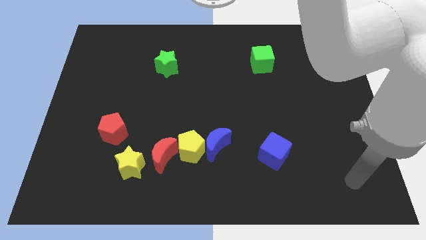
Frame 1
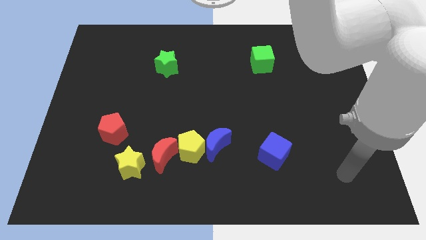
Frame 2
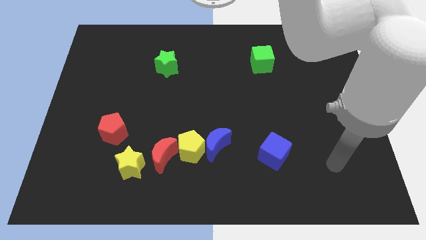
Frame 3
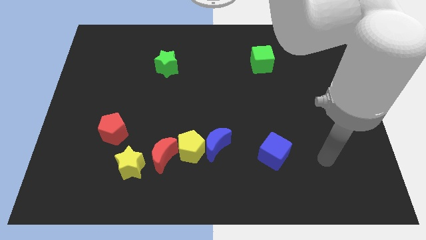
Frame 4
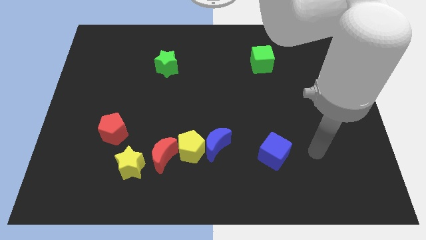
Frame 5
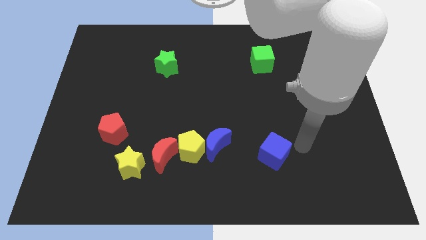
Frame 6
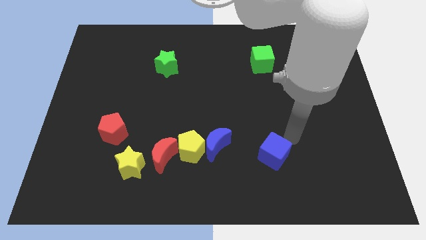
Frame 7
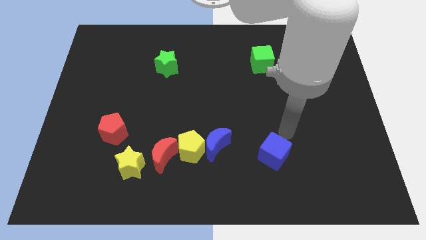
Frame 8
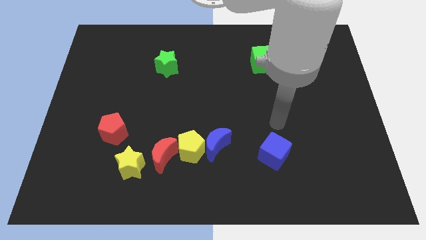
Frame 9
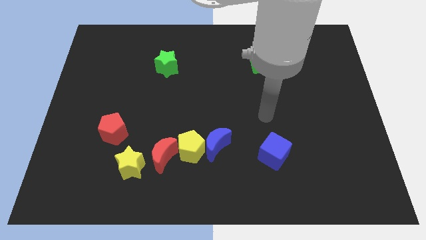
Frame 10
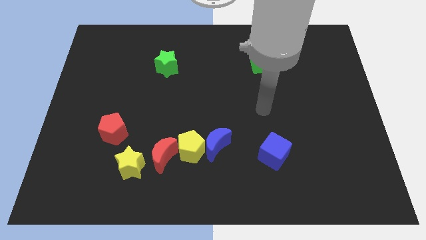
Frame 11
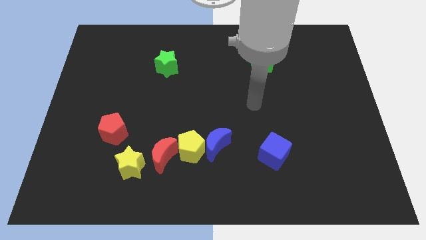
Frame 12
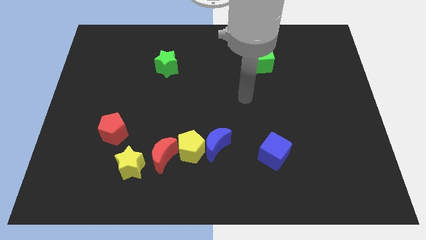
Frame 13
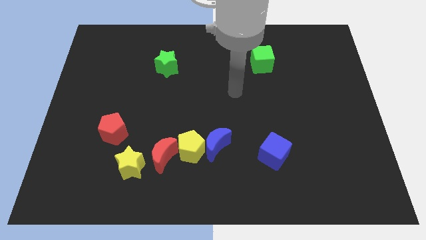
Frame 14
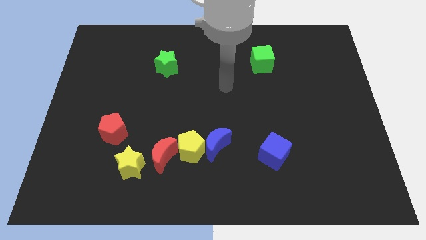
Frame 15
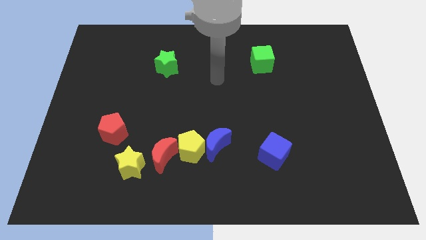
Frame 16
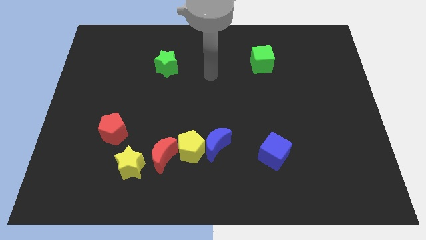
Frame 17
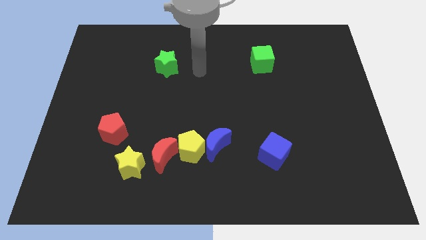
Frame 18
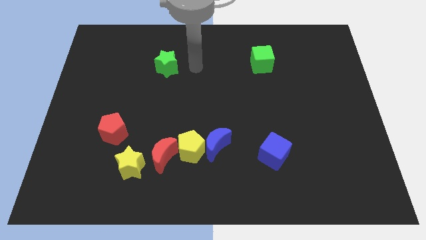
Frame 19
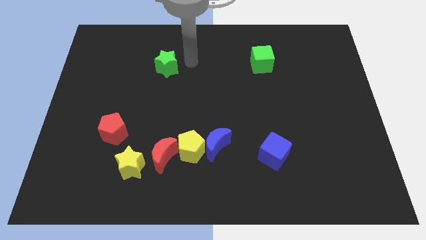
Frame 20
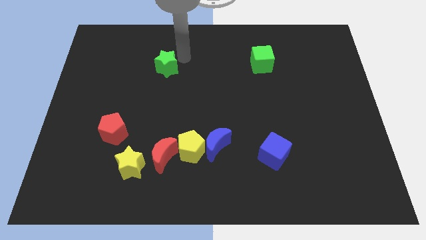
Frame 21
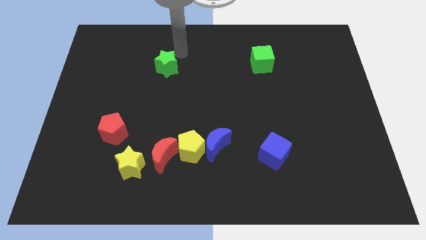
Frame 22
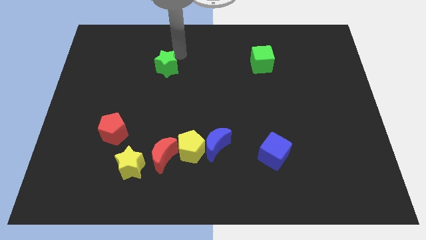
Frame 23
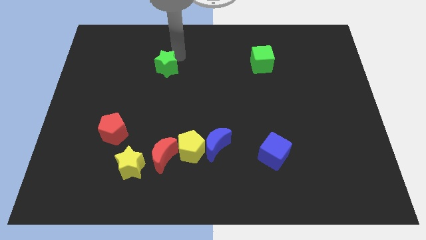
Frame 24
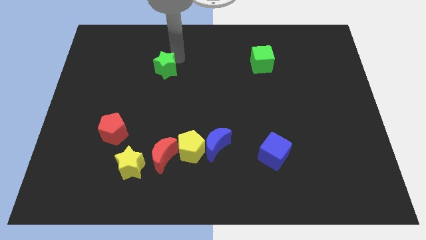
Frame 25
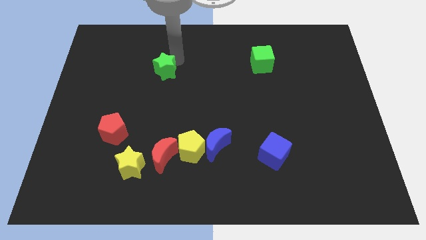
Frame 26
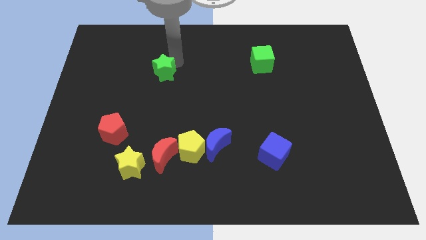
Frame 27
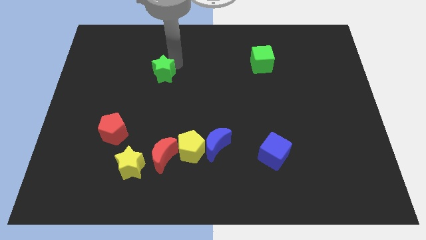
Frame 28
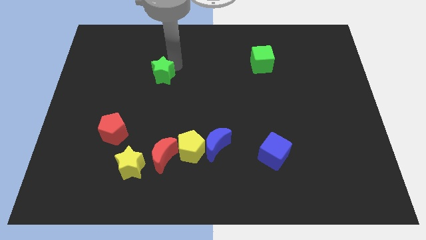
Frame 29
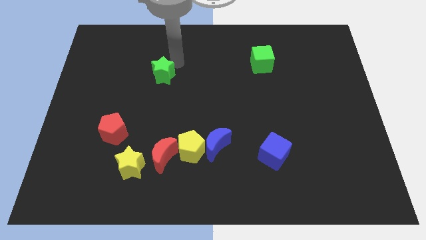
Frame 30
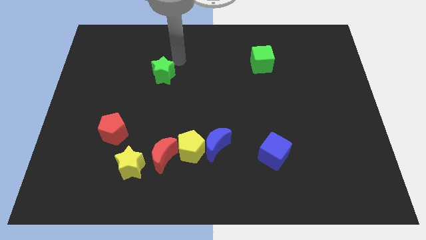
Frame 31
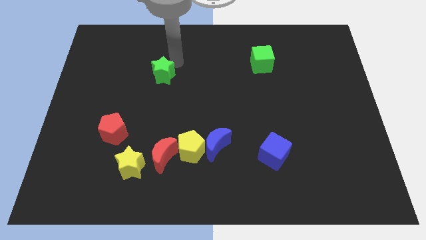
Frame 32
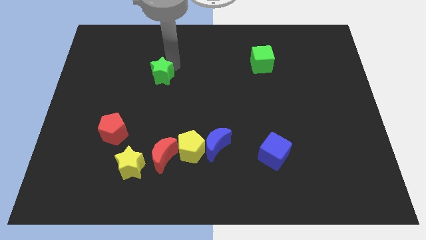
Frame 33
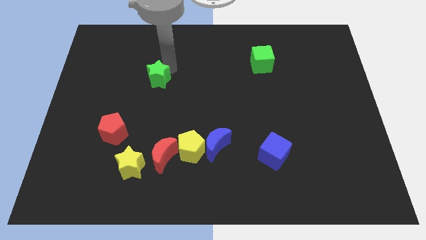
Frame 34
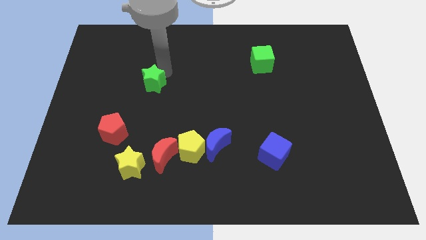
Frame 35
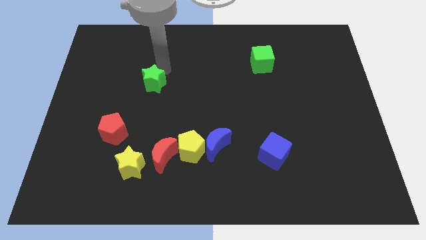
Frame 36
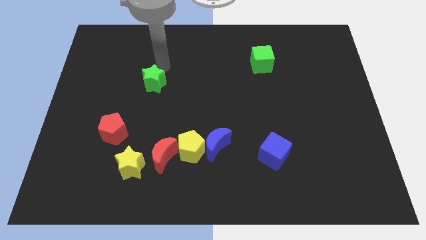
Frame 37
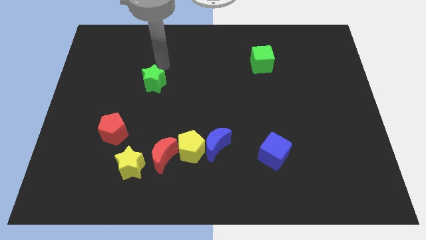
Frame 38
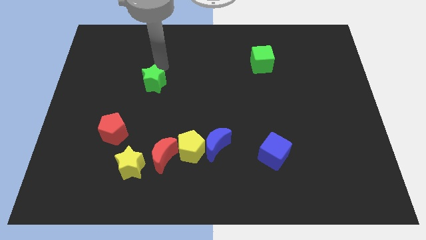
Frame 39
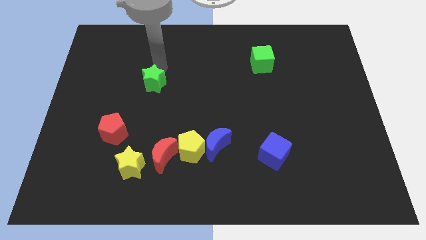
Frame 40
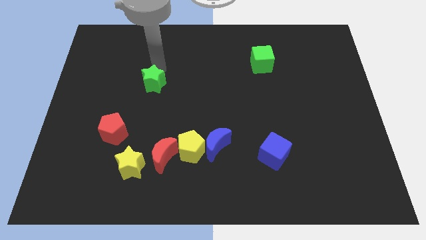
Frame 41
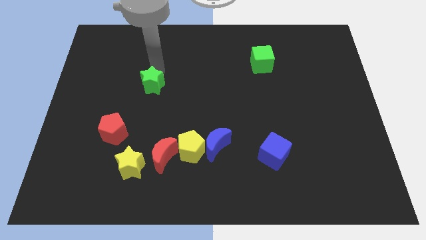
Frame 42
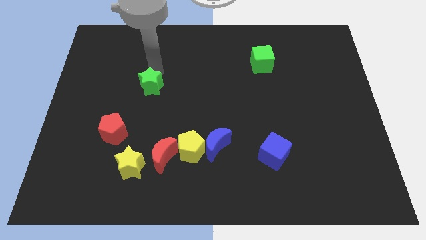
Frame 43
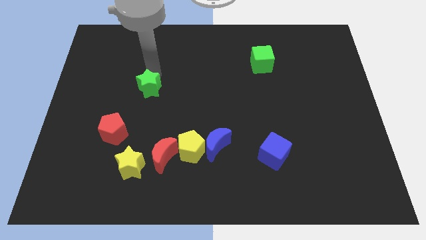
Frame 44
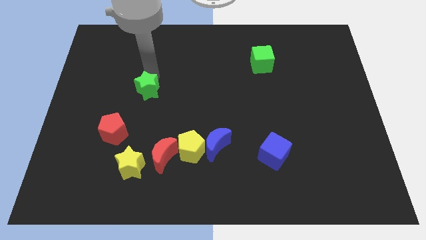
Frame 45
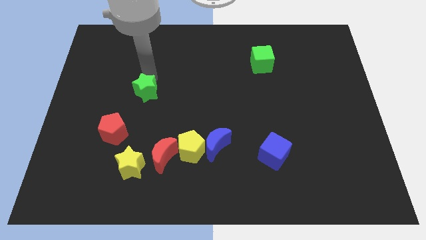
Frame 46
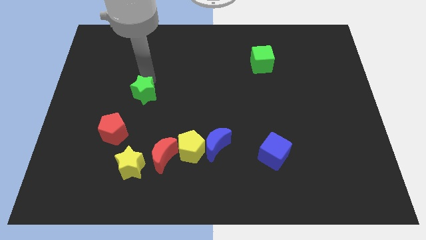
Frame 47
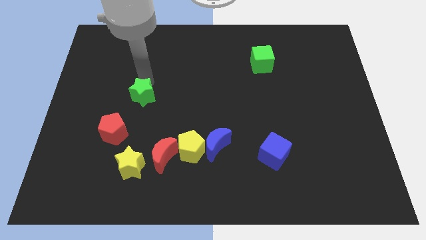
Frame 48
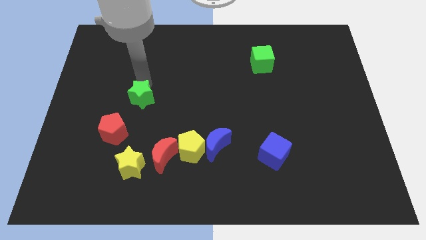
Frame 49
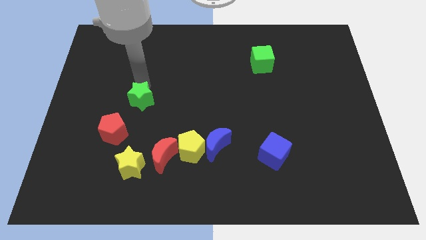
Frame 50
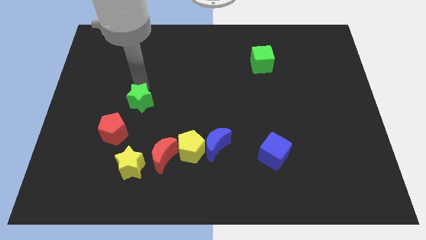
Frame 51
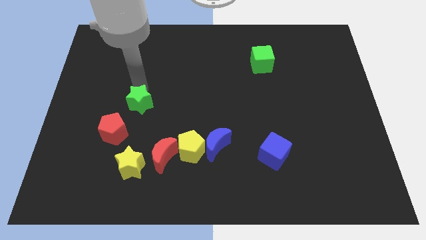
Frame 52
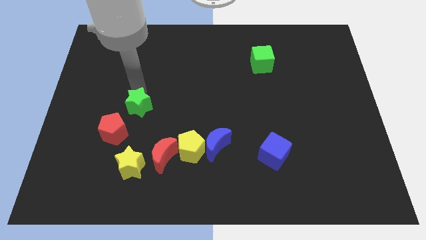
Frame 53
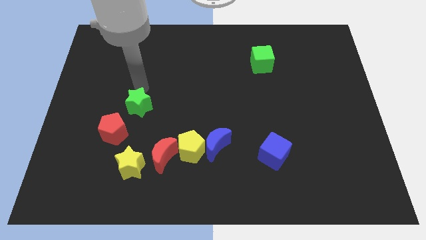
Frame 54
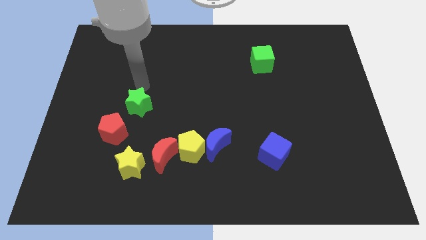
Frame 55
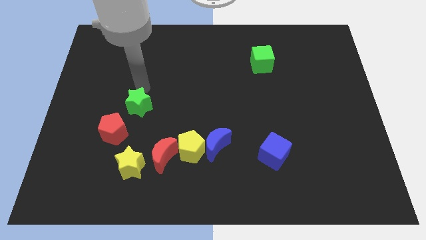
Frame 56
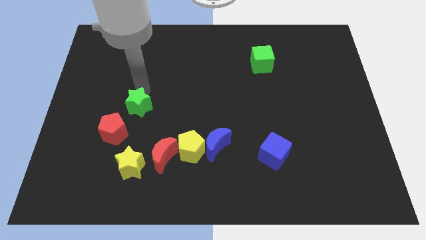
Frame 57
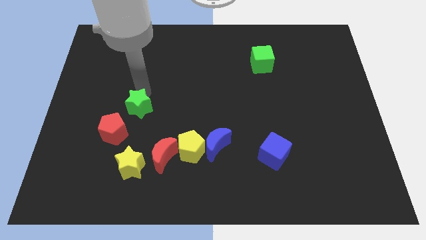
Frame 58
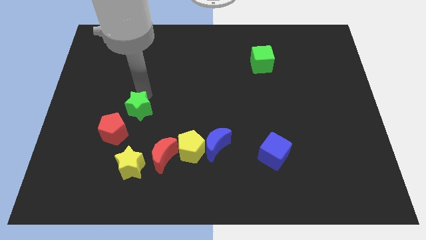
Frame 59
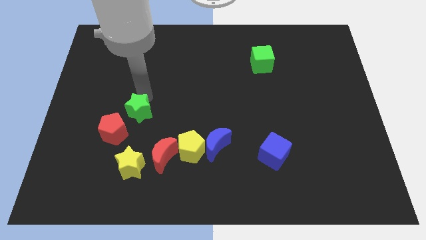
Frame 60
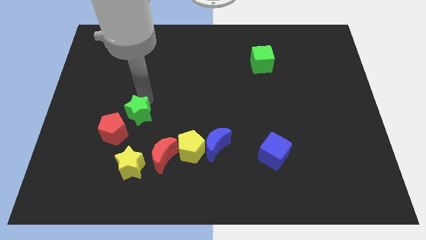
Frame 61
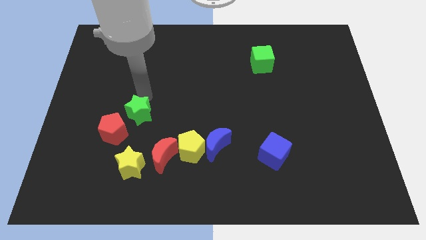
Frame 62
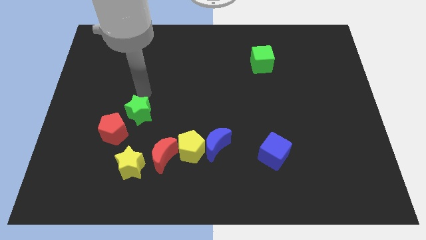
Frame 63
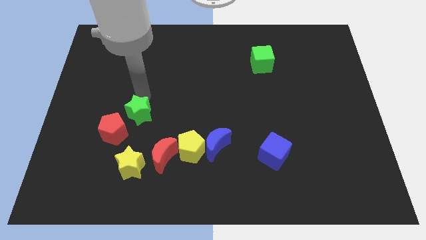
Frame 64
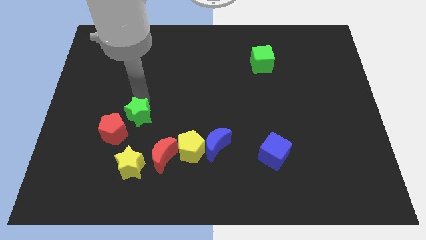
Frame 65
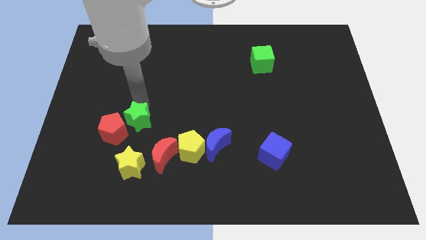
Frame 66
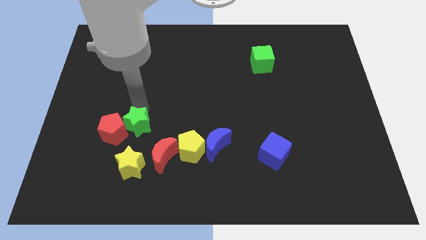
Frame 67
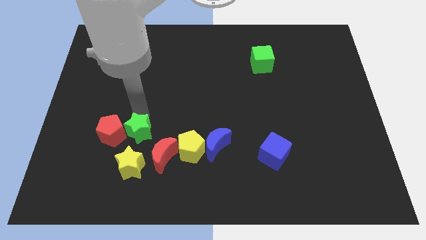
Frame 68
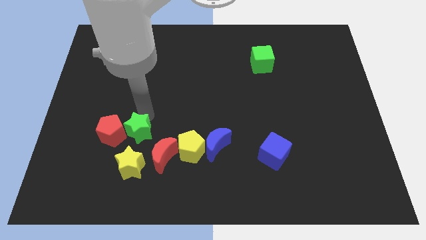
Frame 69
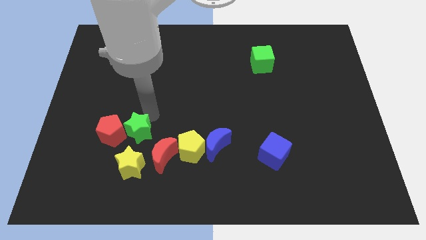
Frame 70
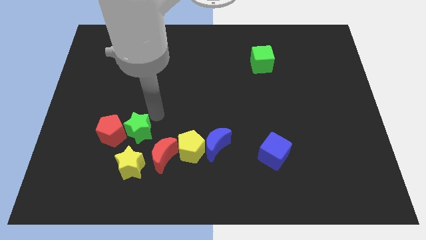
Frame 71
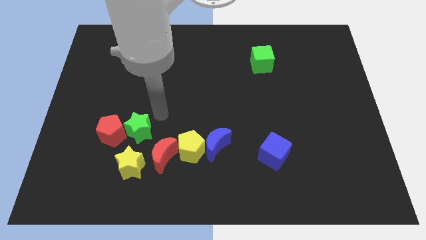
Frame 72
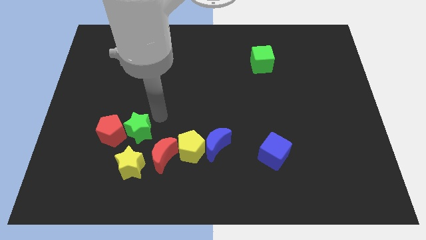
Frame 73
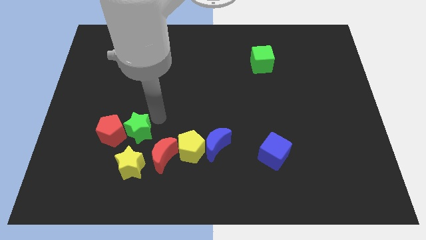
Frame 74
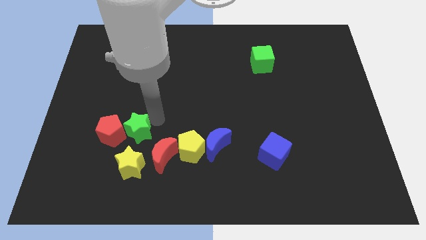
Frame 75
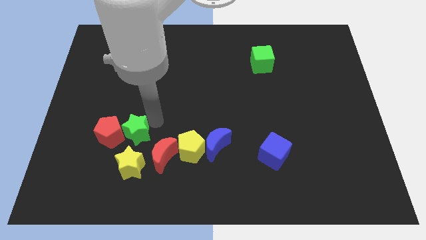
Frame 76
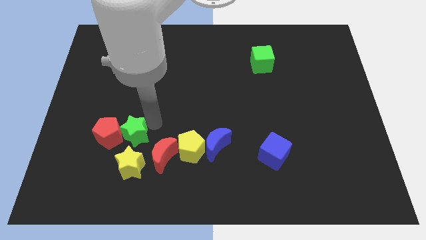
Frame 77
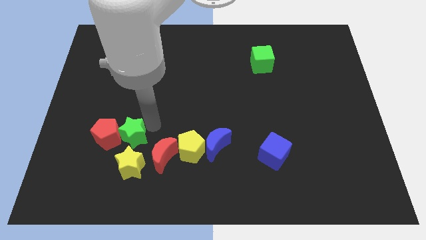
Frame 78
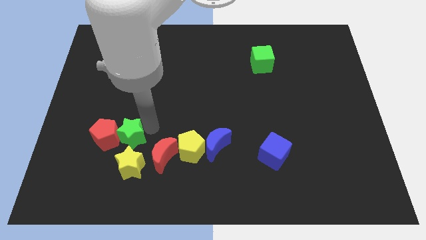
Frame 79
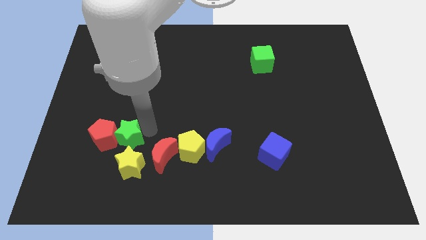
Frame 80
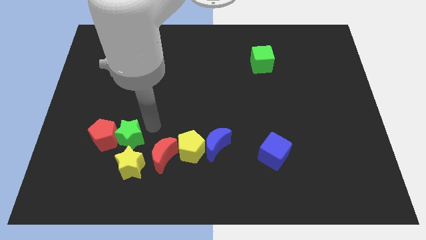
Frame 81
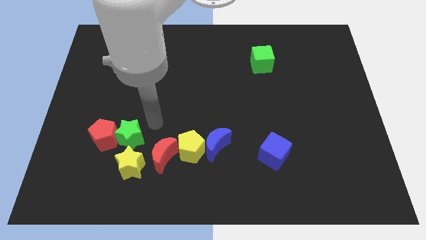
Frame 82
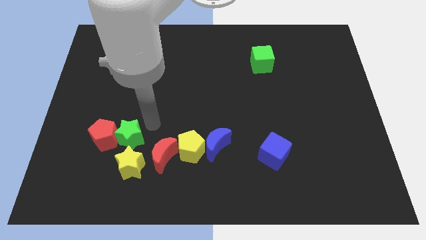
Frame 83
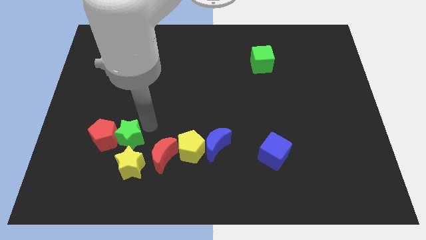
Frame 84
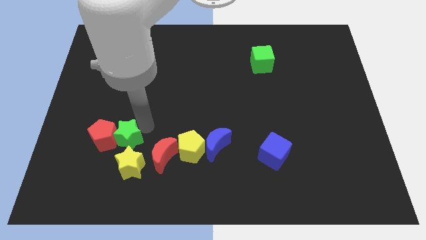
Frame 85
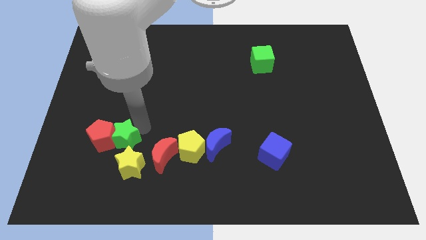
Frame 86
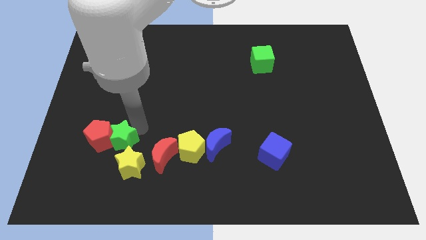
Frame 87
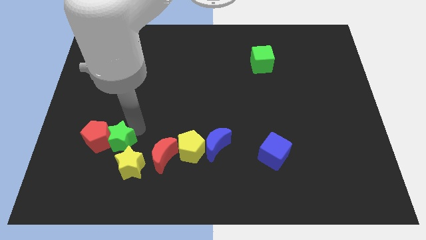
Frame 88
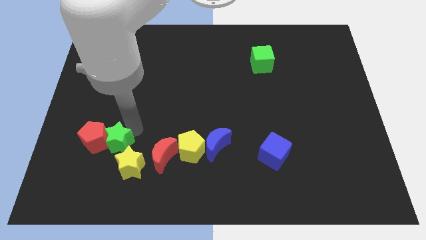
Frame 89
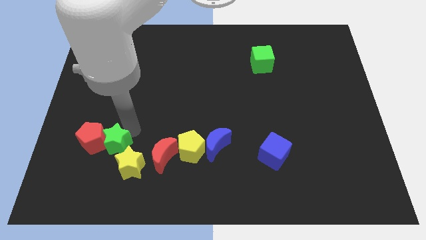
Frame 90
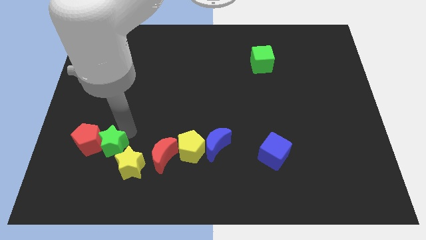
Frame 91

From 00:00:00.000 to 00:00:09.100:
put the green star just left of the yellow star
